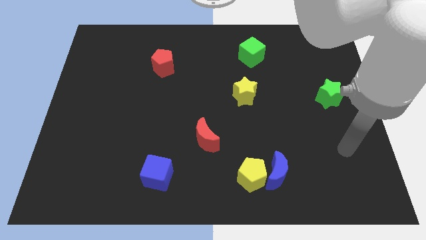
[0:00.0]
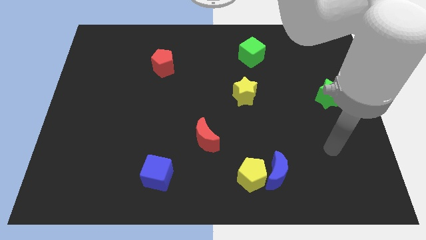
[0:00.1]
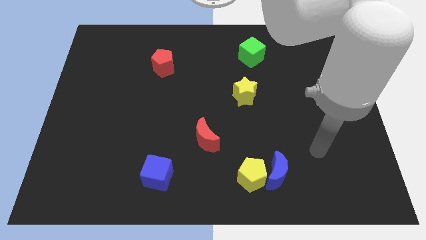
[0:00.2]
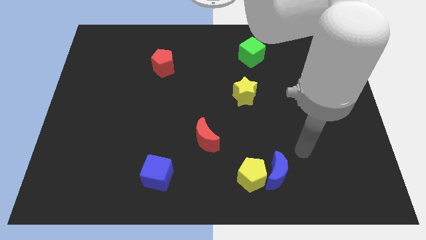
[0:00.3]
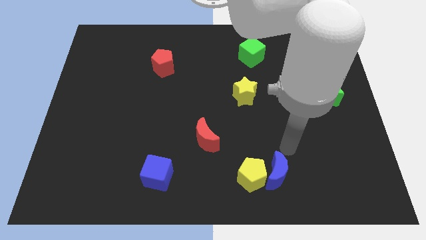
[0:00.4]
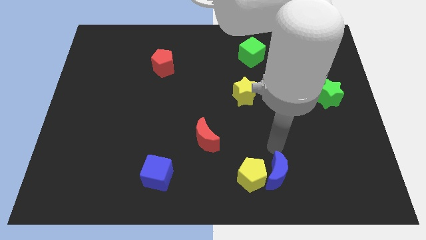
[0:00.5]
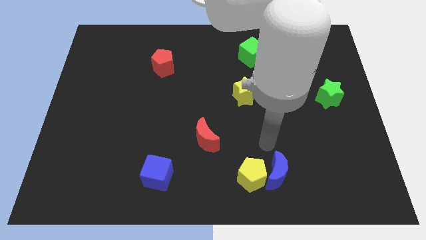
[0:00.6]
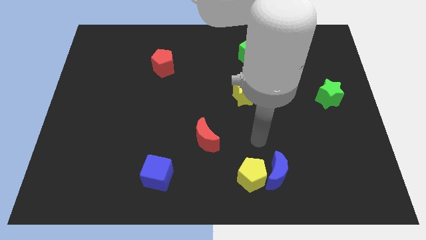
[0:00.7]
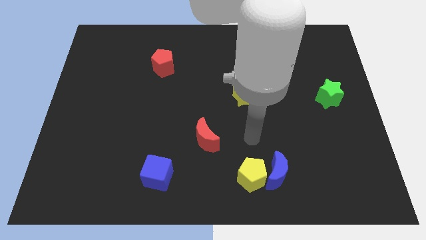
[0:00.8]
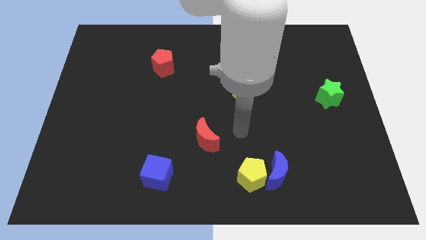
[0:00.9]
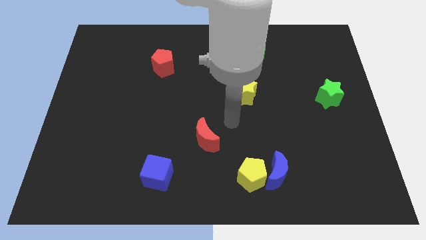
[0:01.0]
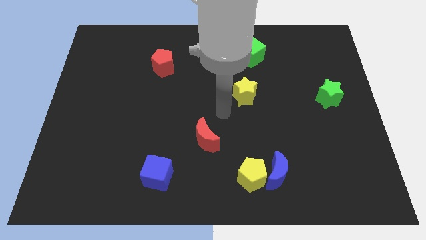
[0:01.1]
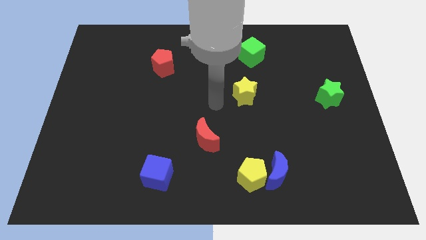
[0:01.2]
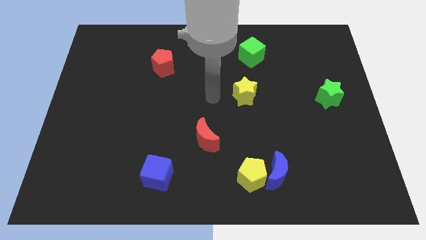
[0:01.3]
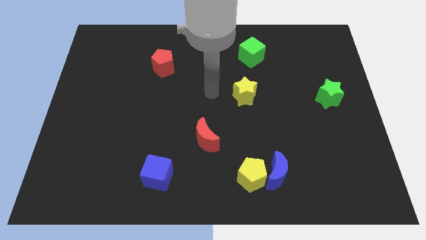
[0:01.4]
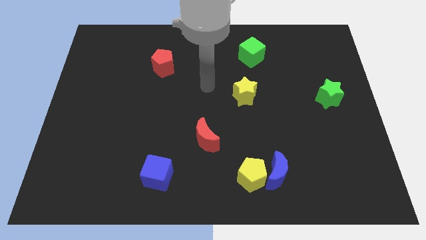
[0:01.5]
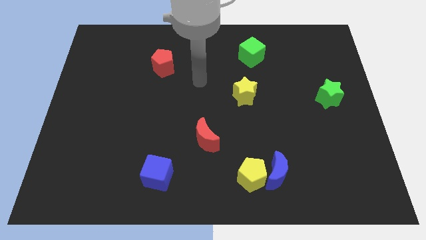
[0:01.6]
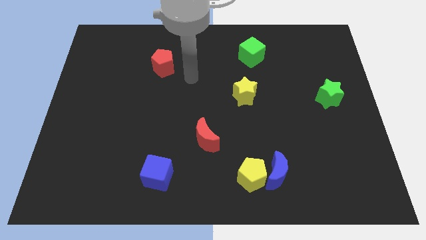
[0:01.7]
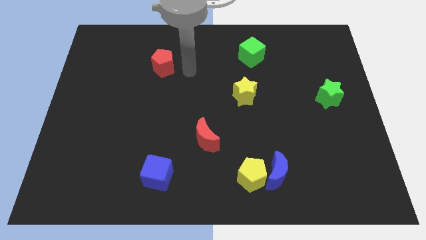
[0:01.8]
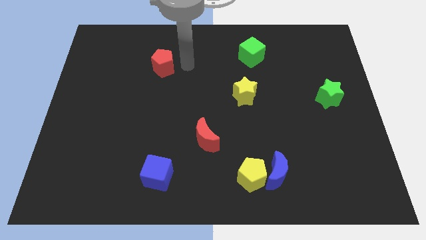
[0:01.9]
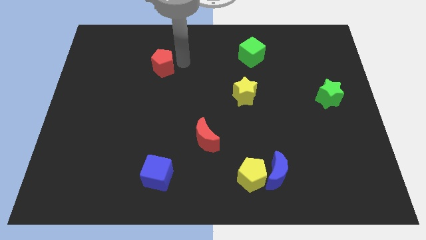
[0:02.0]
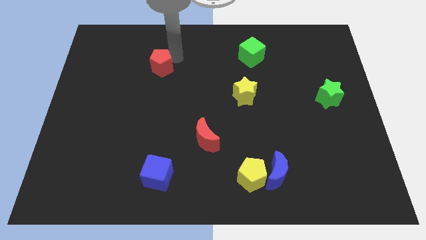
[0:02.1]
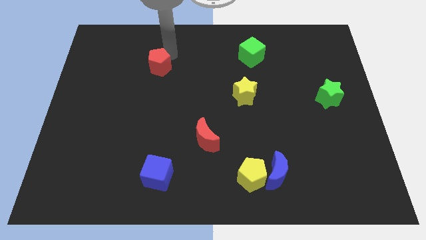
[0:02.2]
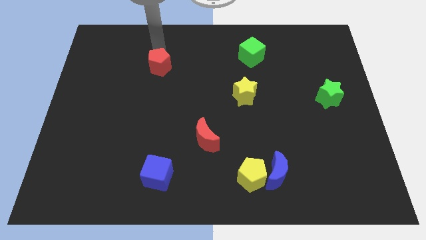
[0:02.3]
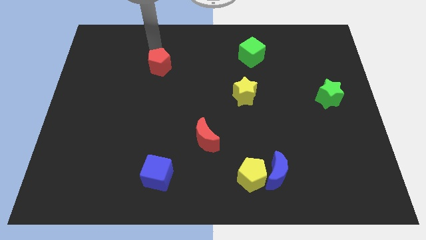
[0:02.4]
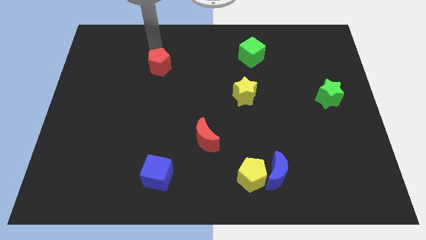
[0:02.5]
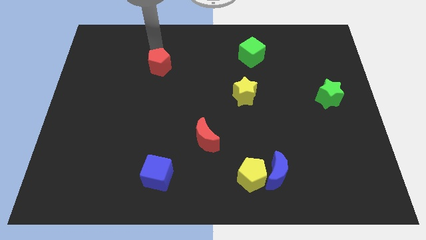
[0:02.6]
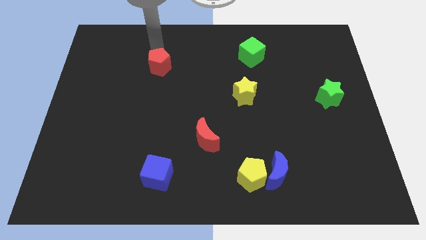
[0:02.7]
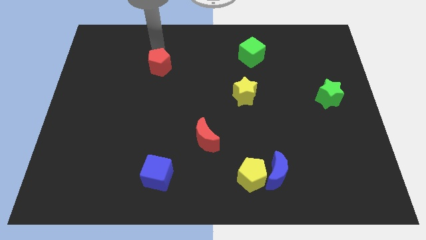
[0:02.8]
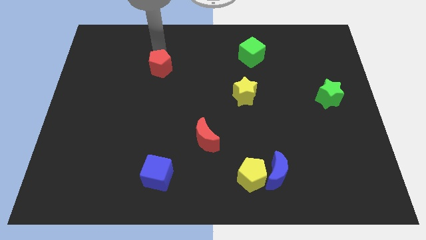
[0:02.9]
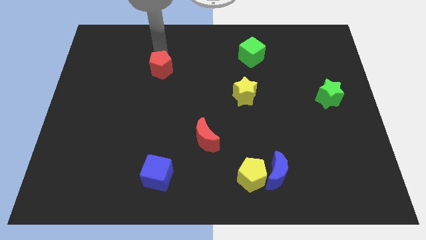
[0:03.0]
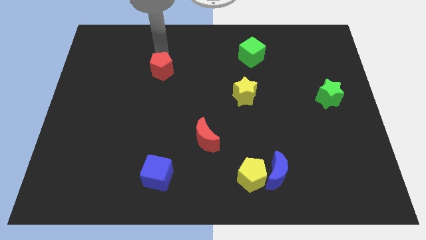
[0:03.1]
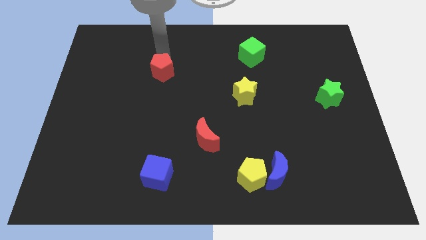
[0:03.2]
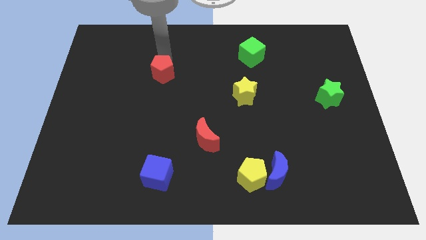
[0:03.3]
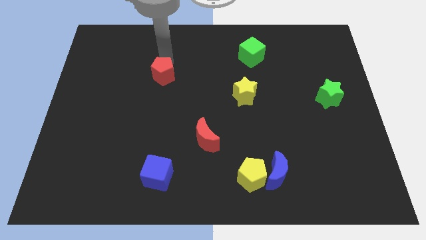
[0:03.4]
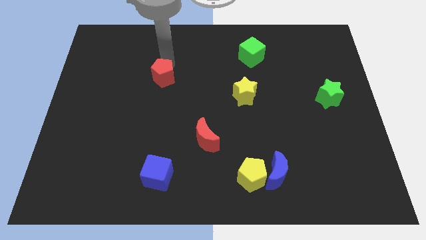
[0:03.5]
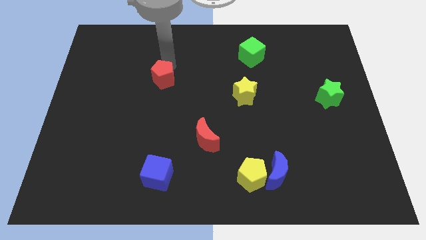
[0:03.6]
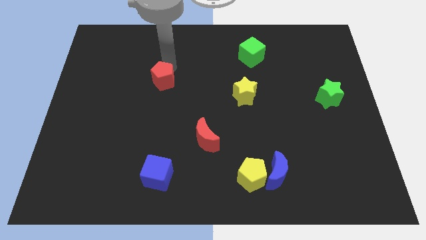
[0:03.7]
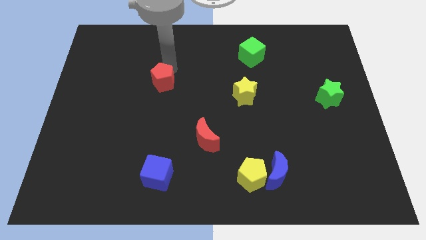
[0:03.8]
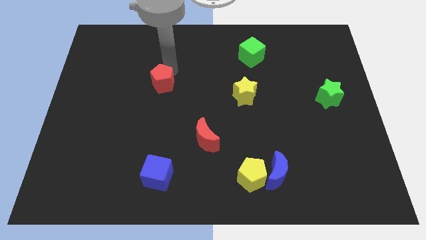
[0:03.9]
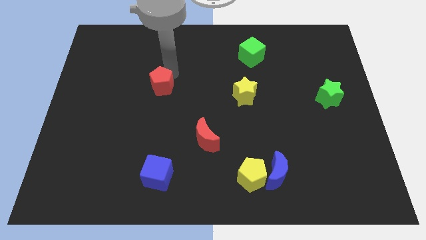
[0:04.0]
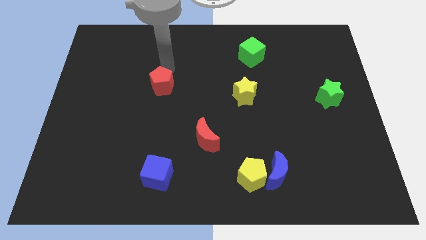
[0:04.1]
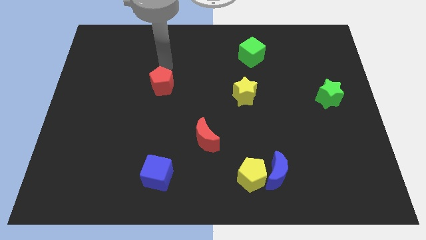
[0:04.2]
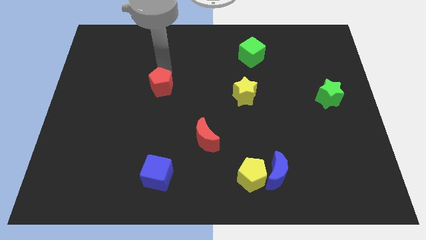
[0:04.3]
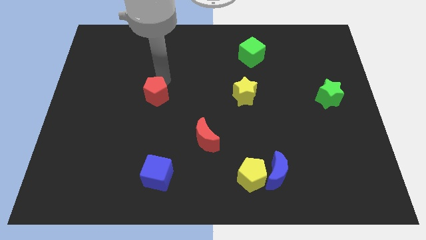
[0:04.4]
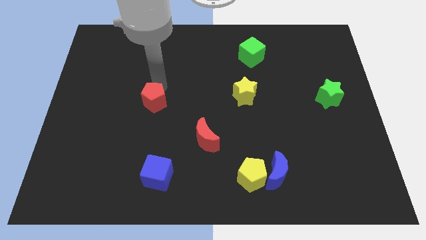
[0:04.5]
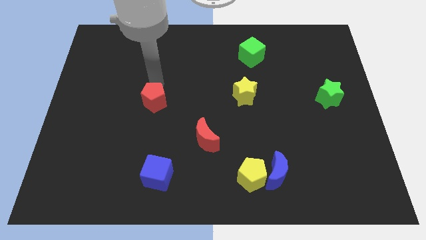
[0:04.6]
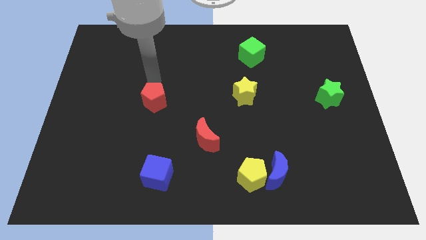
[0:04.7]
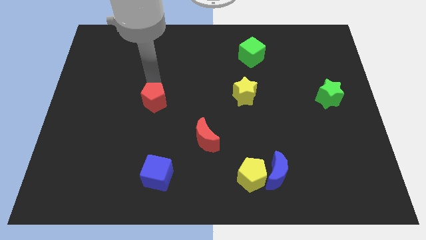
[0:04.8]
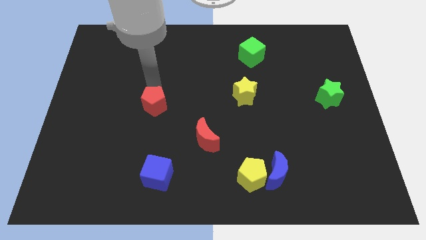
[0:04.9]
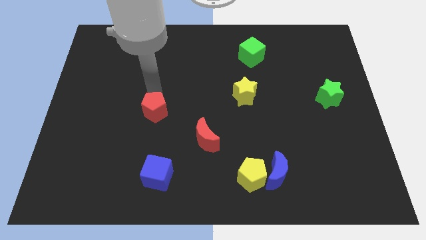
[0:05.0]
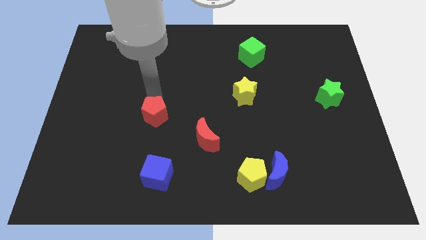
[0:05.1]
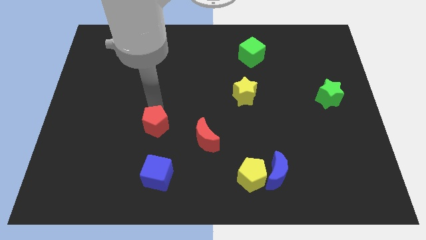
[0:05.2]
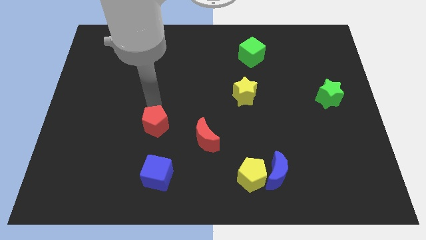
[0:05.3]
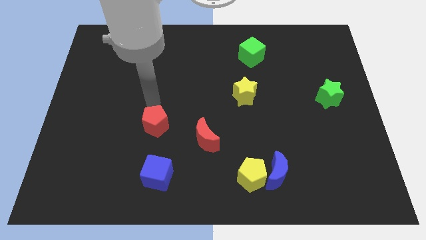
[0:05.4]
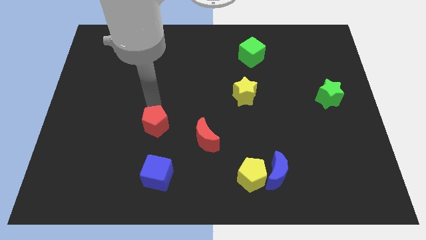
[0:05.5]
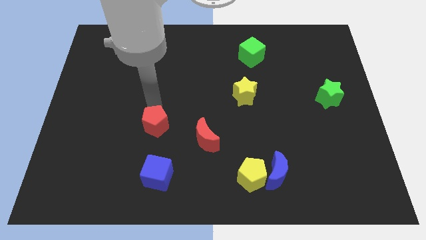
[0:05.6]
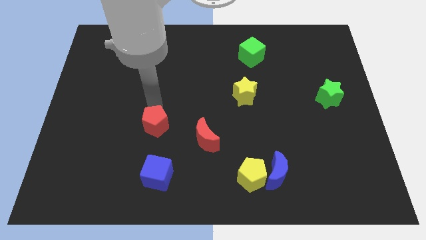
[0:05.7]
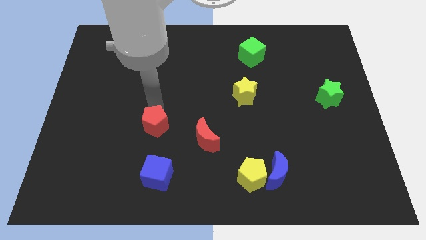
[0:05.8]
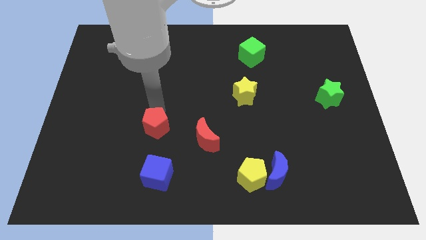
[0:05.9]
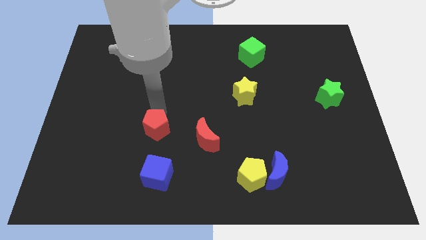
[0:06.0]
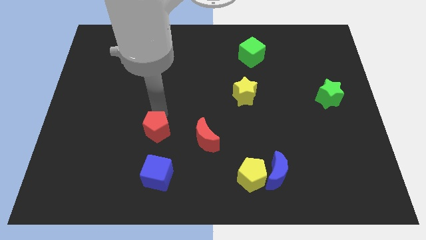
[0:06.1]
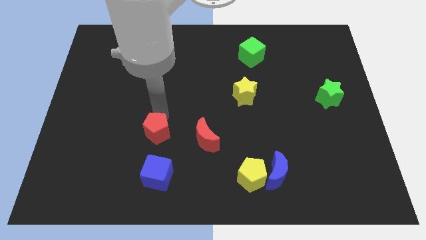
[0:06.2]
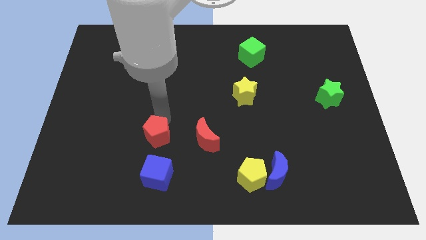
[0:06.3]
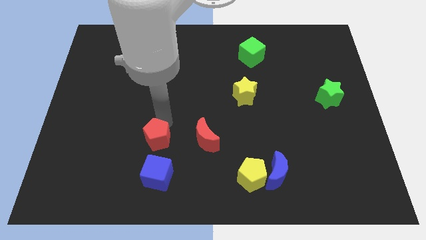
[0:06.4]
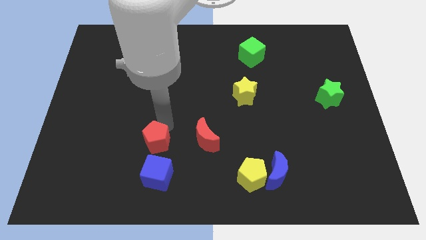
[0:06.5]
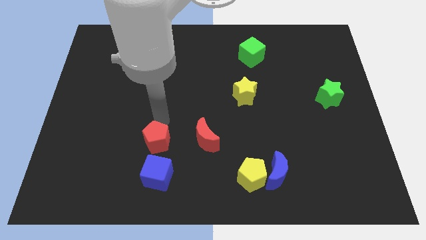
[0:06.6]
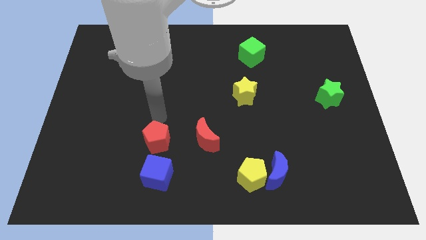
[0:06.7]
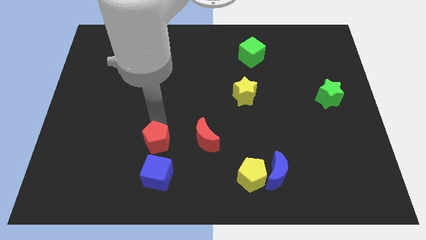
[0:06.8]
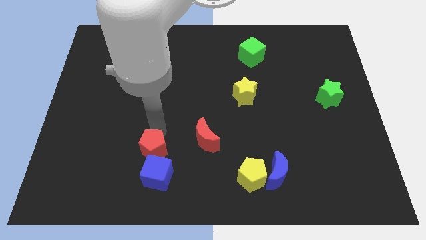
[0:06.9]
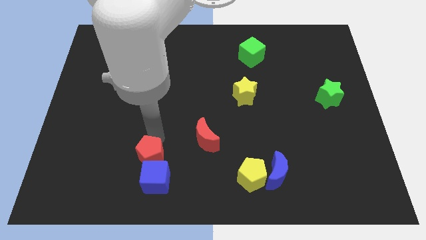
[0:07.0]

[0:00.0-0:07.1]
push the red pentagon to the blue cube
